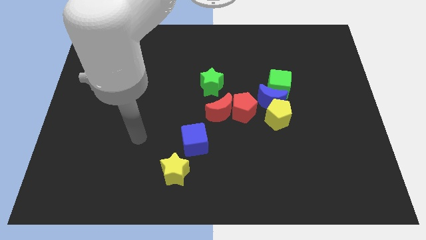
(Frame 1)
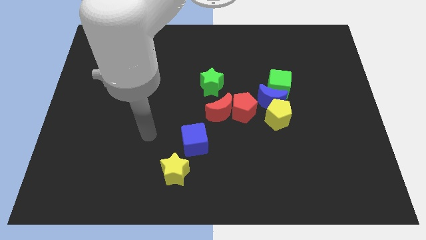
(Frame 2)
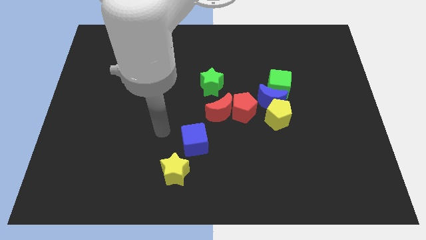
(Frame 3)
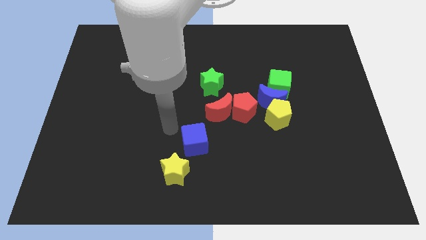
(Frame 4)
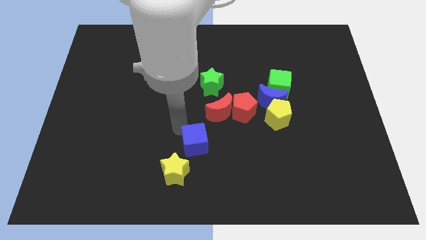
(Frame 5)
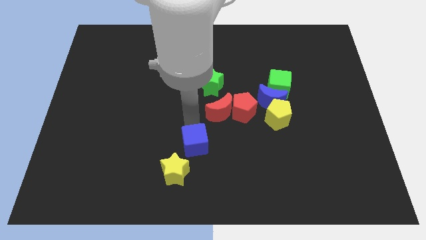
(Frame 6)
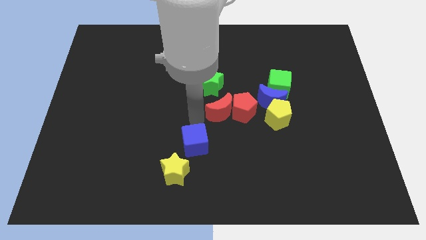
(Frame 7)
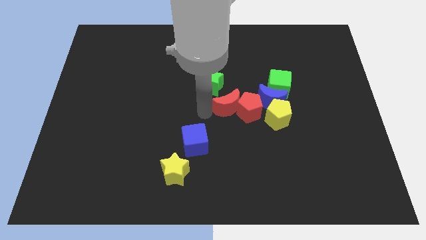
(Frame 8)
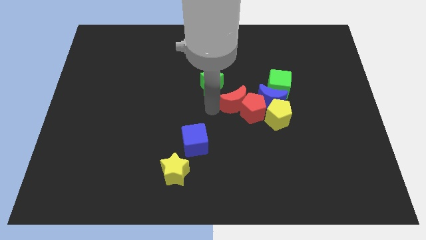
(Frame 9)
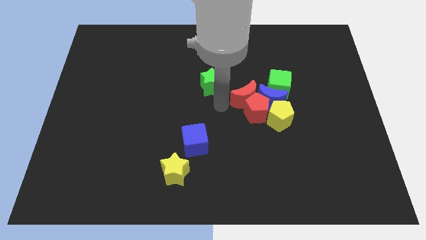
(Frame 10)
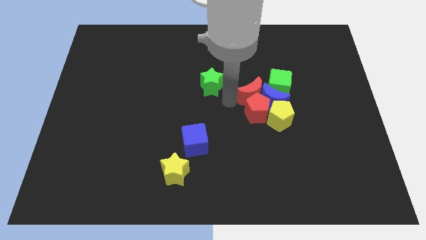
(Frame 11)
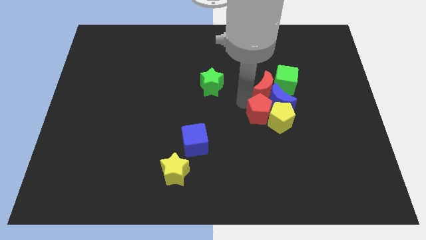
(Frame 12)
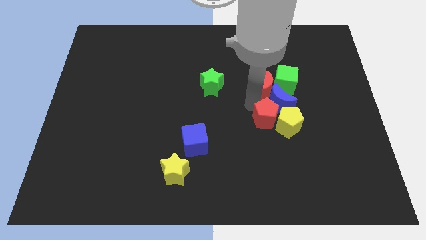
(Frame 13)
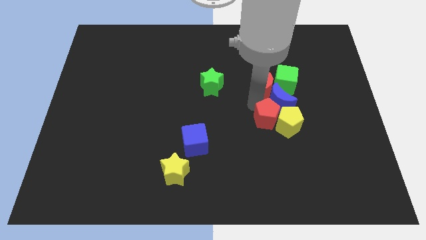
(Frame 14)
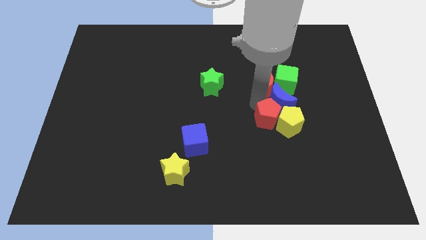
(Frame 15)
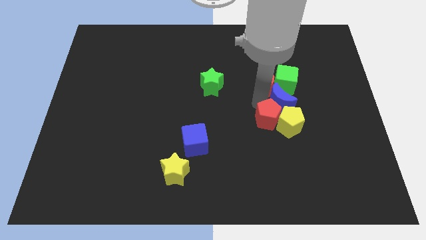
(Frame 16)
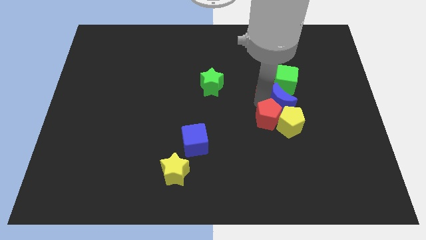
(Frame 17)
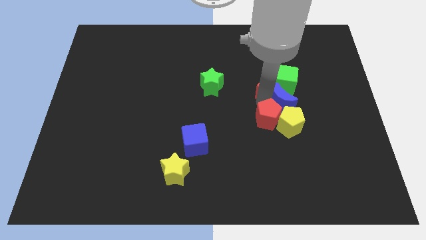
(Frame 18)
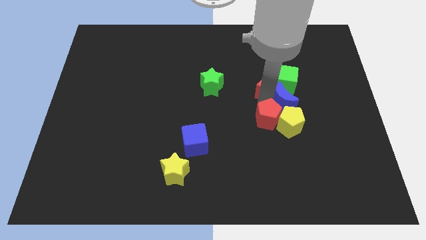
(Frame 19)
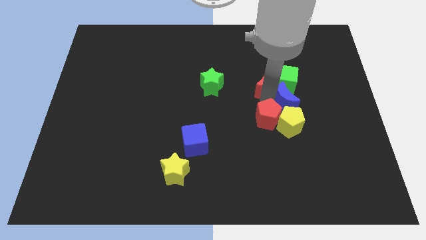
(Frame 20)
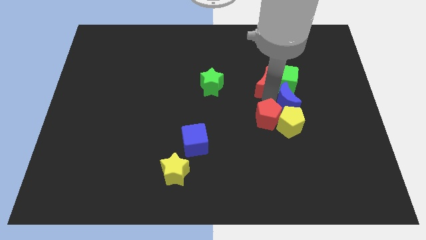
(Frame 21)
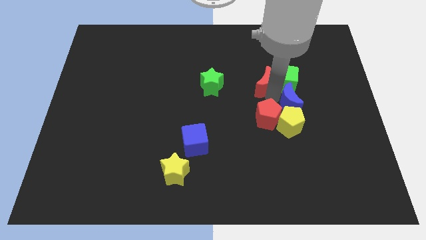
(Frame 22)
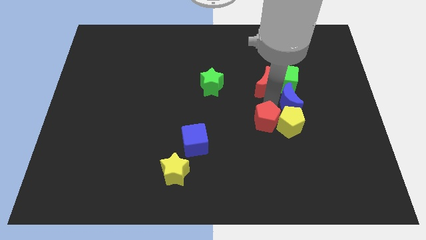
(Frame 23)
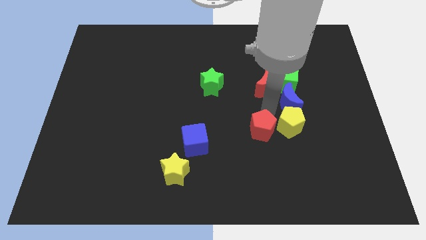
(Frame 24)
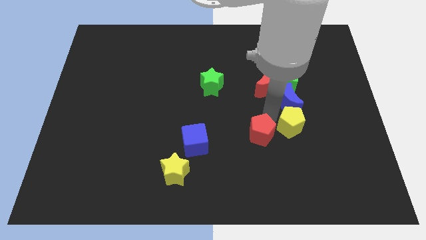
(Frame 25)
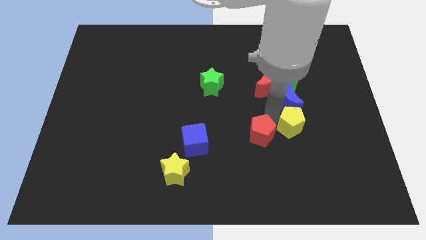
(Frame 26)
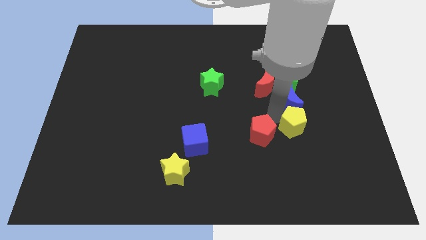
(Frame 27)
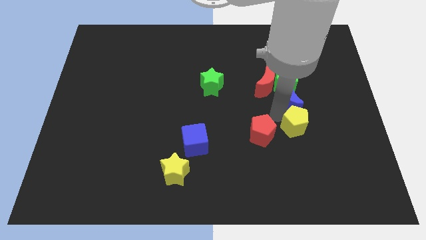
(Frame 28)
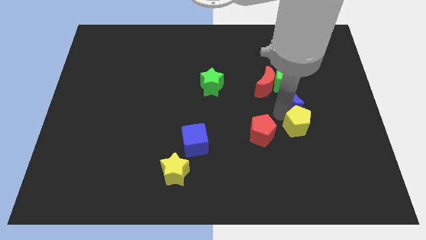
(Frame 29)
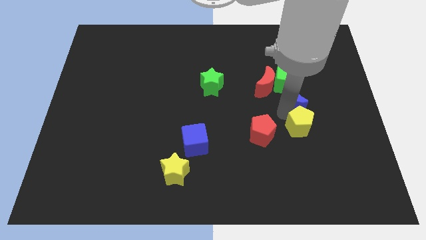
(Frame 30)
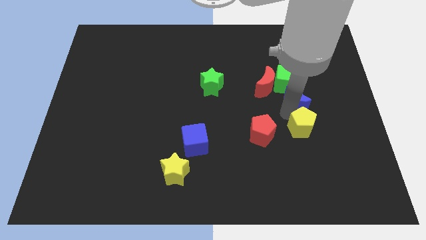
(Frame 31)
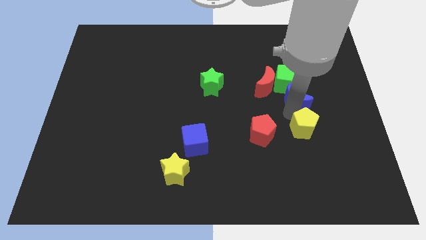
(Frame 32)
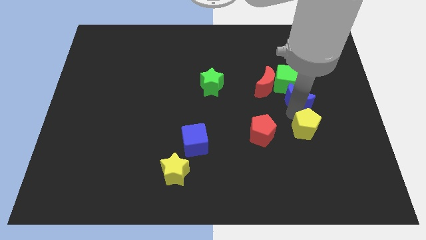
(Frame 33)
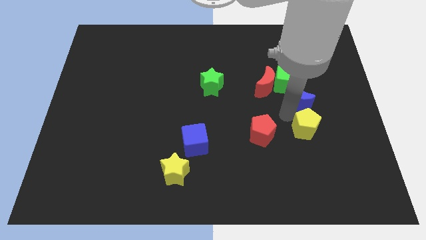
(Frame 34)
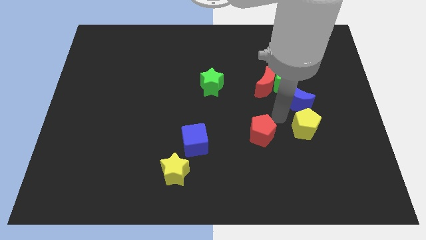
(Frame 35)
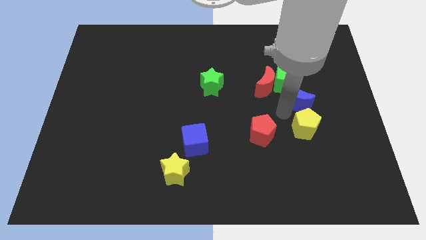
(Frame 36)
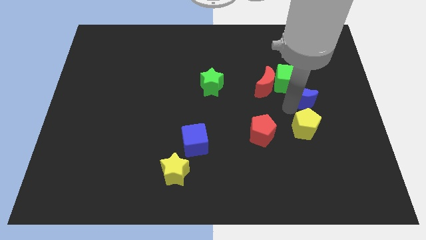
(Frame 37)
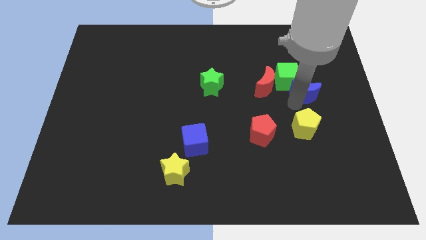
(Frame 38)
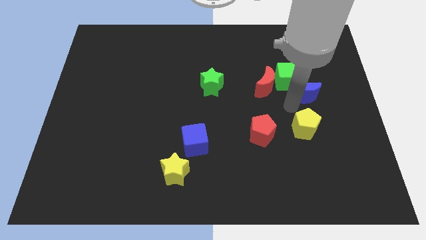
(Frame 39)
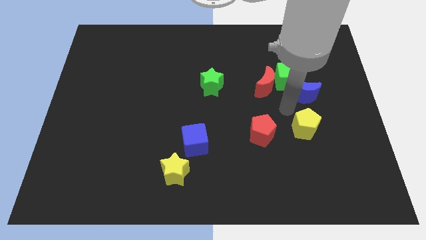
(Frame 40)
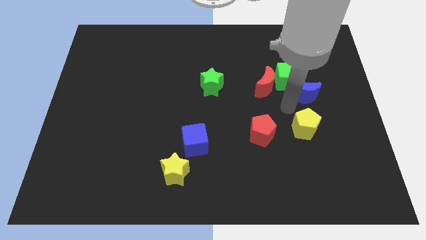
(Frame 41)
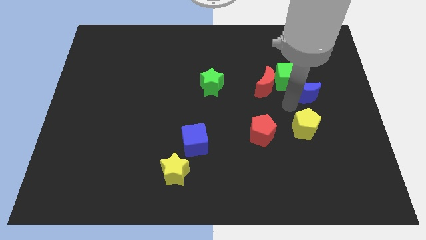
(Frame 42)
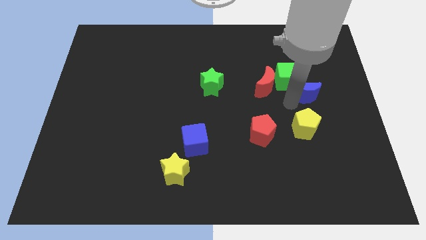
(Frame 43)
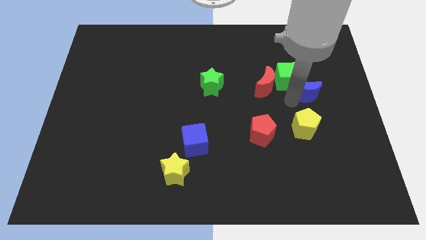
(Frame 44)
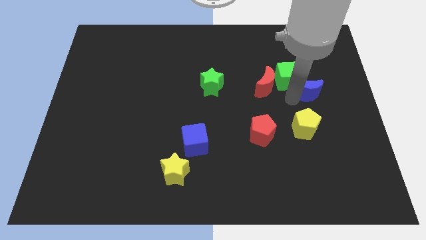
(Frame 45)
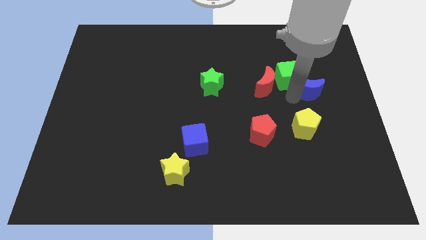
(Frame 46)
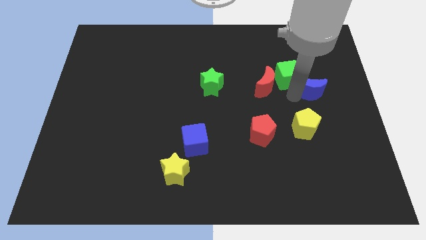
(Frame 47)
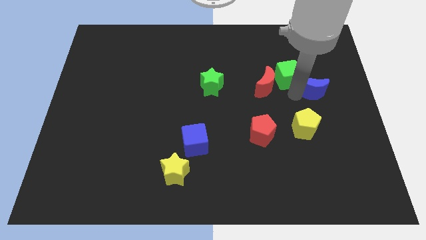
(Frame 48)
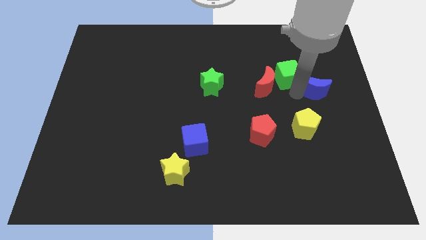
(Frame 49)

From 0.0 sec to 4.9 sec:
move the blue moon away from the group

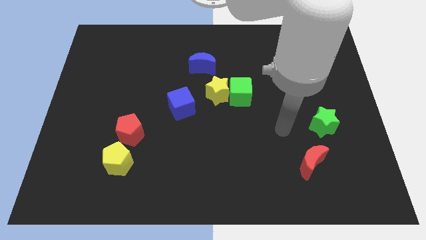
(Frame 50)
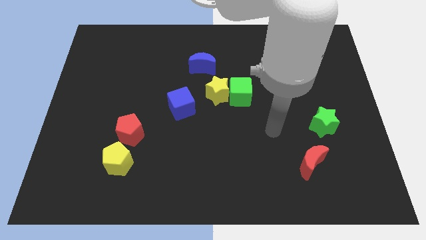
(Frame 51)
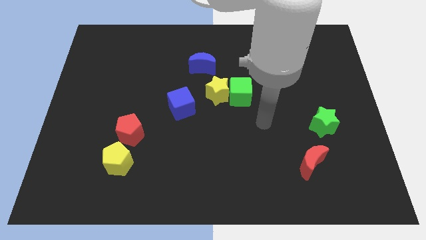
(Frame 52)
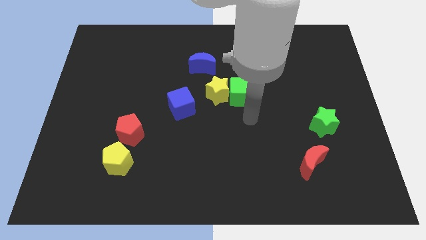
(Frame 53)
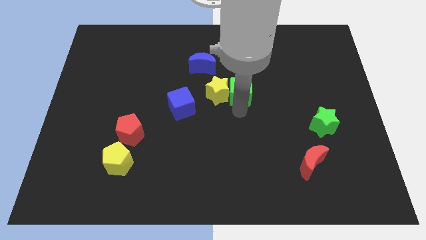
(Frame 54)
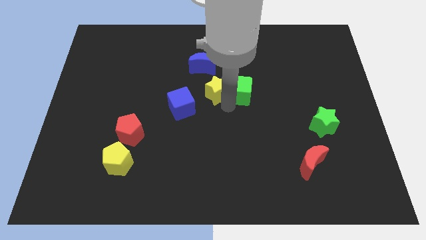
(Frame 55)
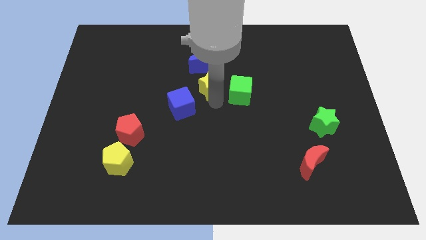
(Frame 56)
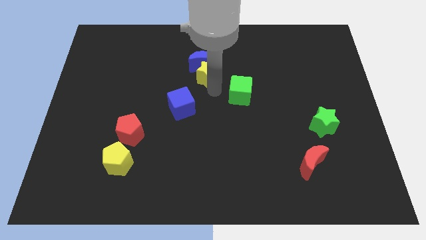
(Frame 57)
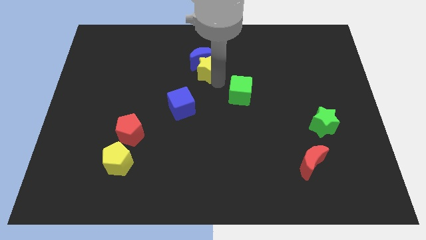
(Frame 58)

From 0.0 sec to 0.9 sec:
separate the green cube from the yellow star

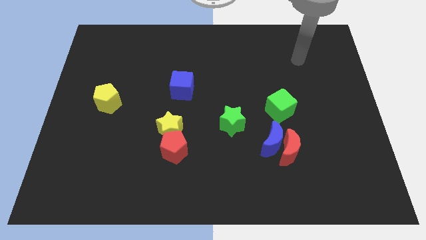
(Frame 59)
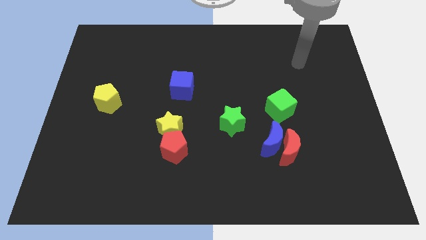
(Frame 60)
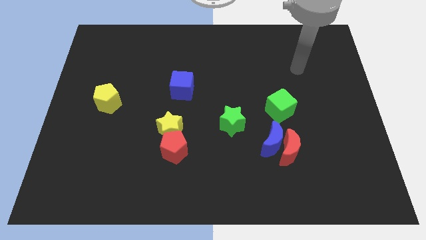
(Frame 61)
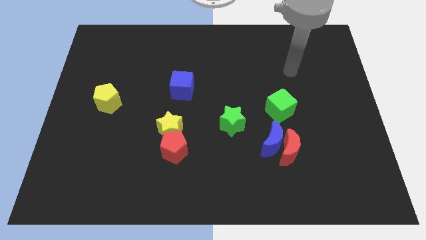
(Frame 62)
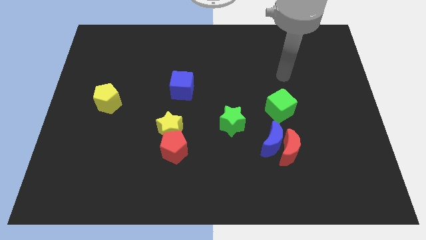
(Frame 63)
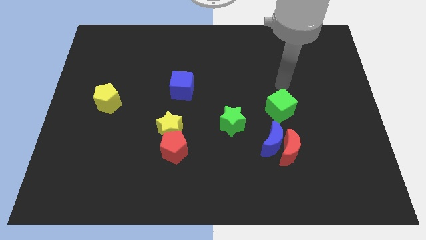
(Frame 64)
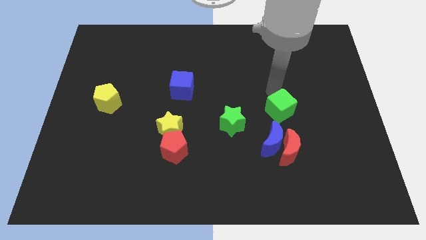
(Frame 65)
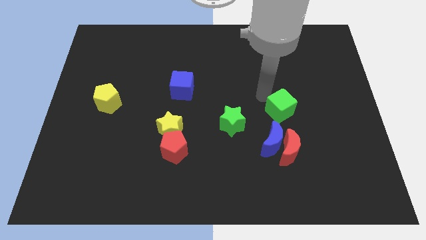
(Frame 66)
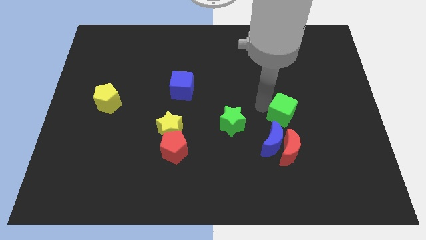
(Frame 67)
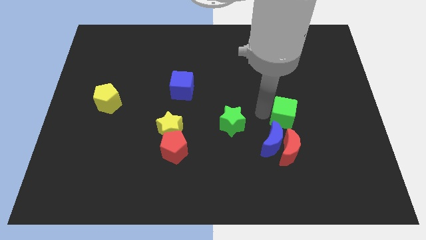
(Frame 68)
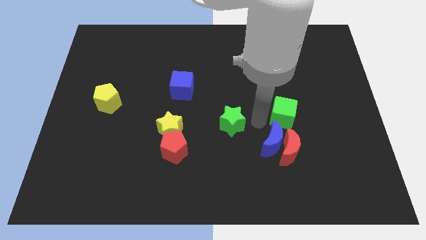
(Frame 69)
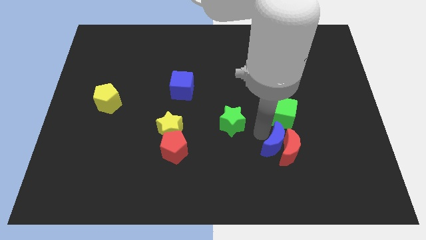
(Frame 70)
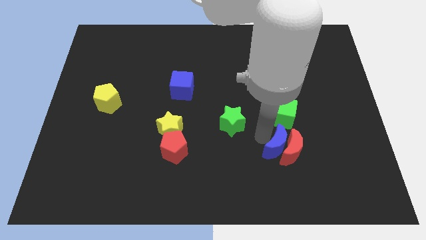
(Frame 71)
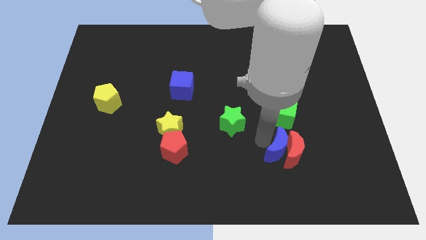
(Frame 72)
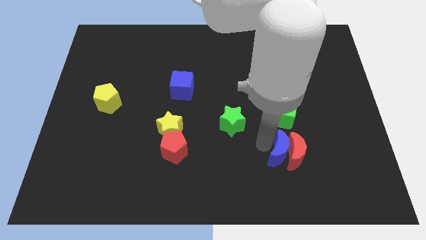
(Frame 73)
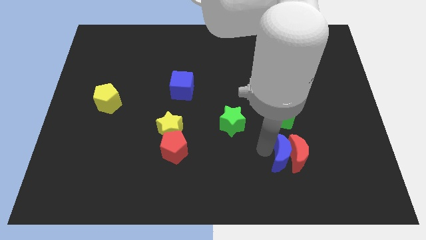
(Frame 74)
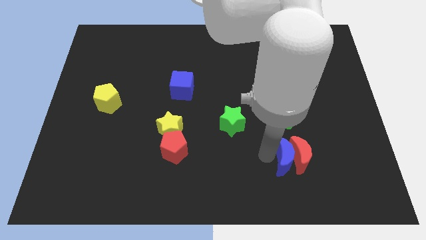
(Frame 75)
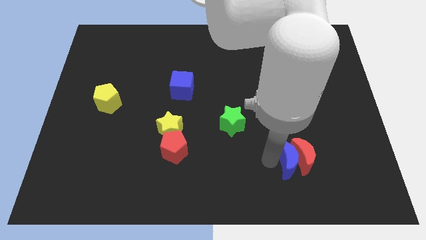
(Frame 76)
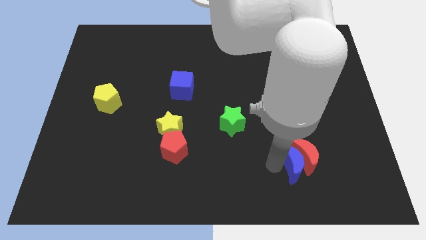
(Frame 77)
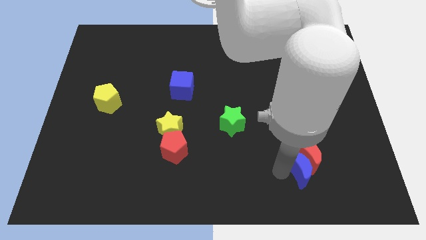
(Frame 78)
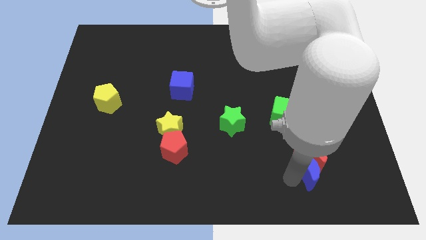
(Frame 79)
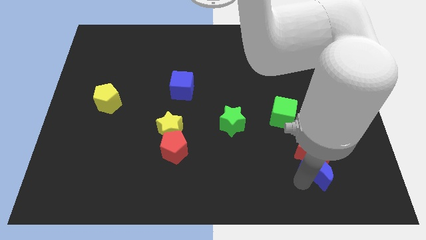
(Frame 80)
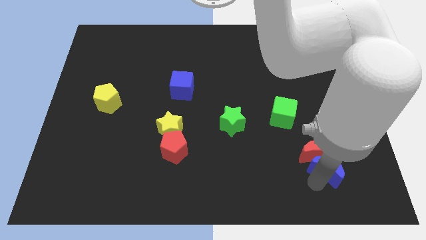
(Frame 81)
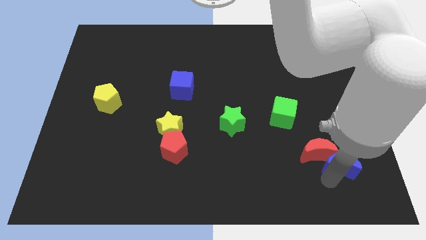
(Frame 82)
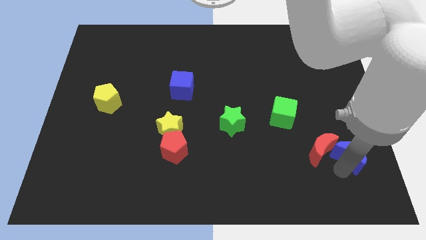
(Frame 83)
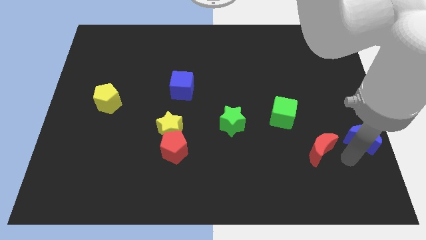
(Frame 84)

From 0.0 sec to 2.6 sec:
pull the red moon apart from the blue moon

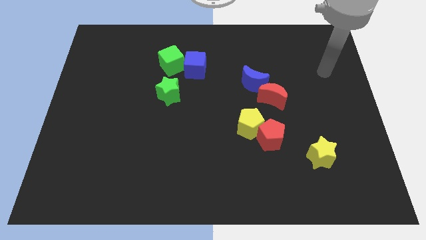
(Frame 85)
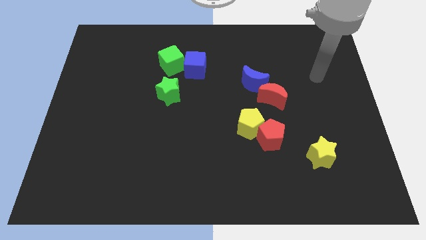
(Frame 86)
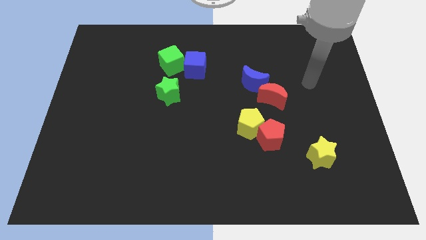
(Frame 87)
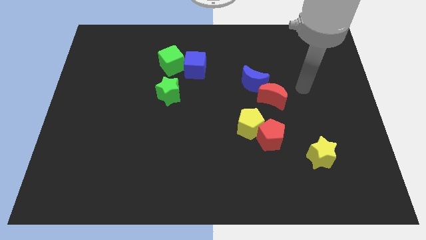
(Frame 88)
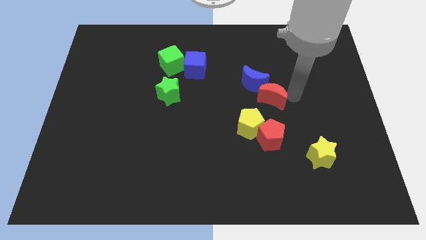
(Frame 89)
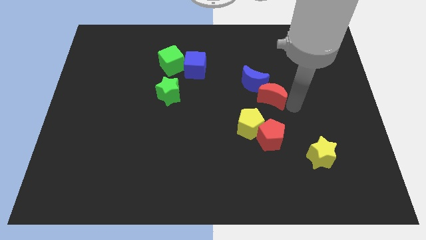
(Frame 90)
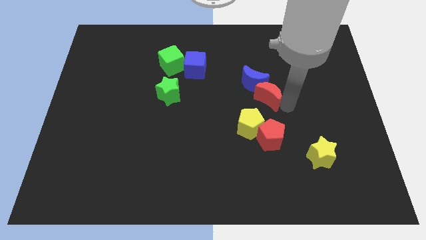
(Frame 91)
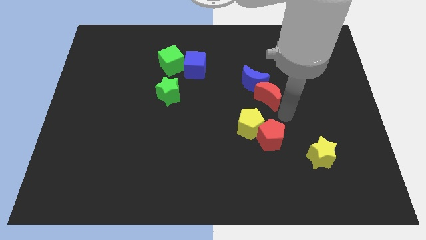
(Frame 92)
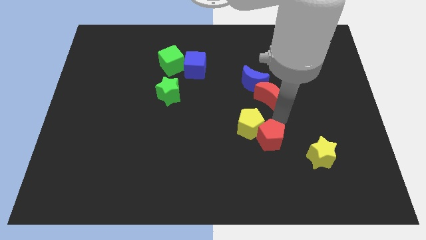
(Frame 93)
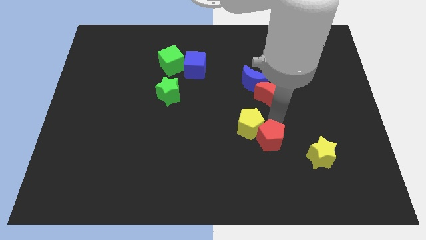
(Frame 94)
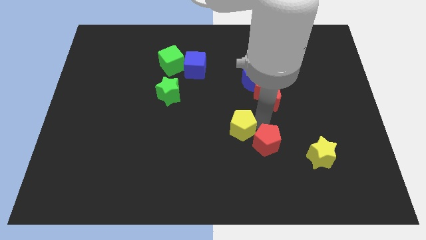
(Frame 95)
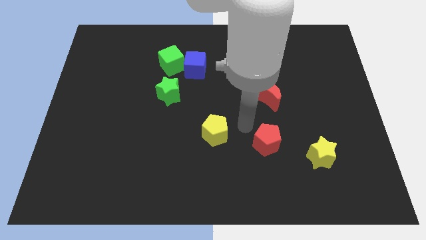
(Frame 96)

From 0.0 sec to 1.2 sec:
separate the red pentagon from the yellow pentagon
